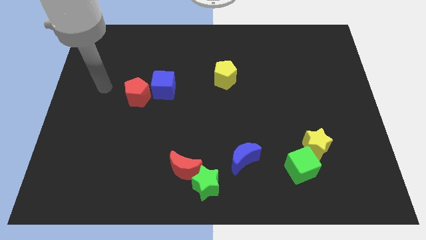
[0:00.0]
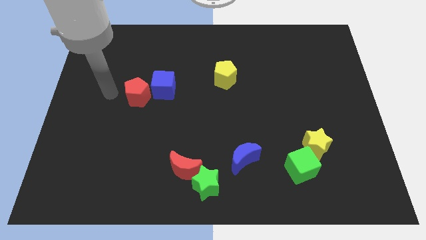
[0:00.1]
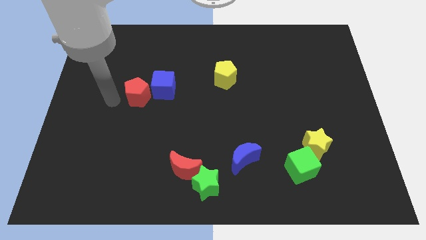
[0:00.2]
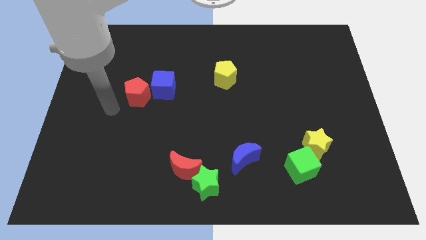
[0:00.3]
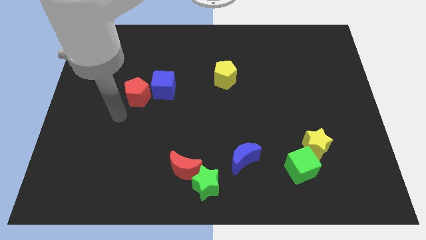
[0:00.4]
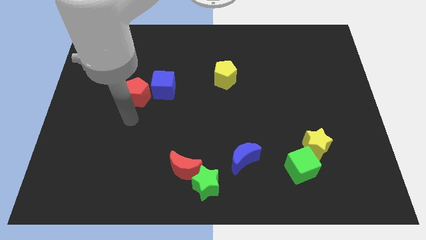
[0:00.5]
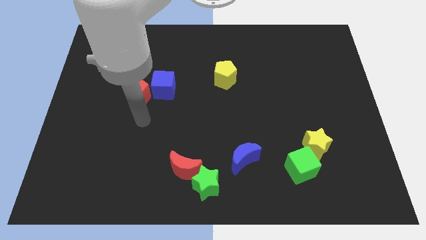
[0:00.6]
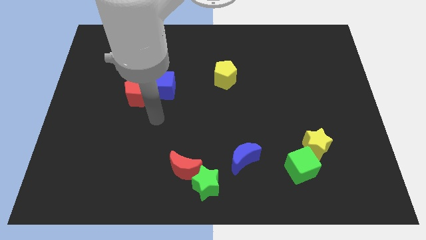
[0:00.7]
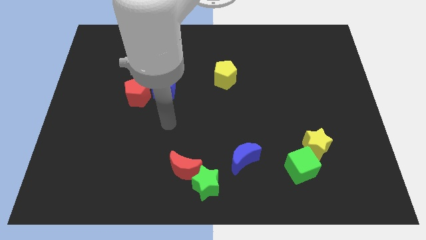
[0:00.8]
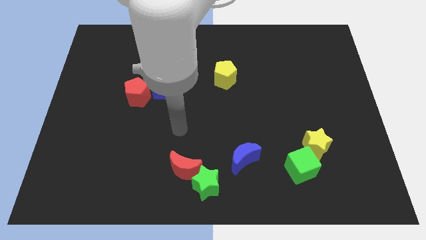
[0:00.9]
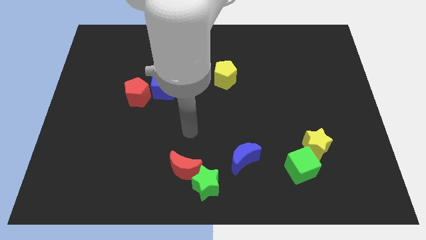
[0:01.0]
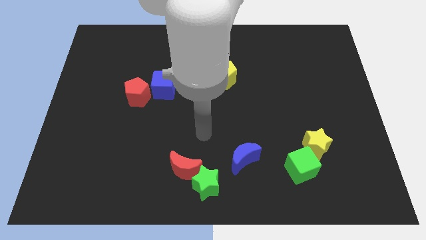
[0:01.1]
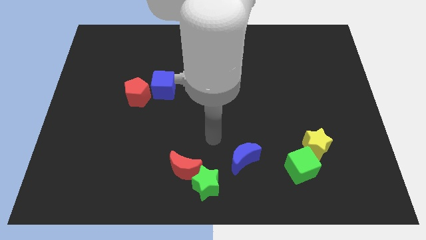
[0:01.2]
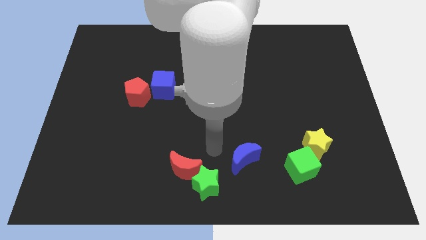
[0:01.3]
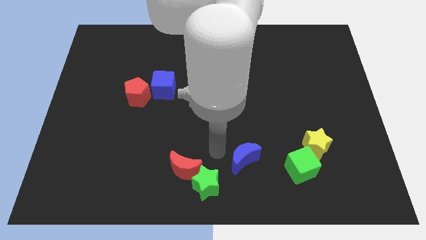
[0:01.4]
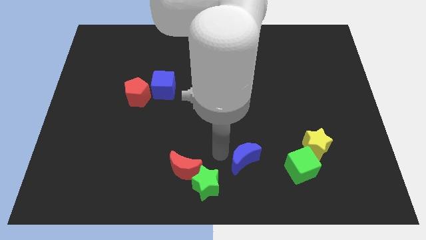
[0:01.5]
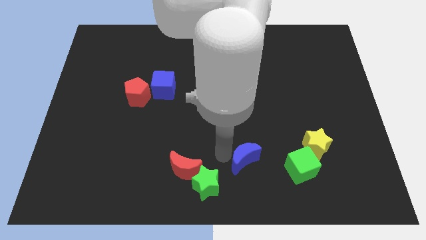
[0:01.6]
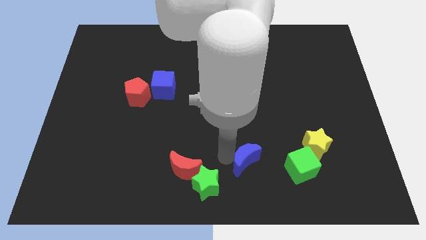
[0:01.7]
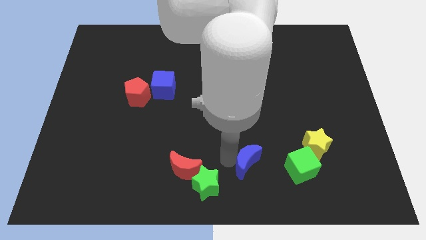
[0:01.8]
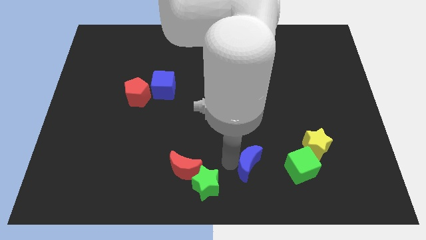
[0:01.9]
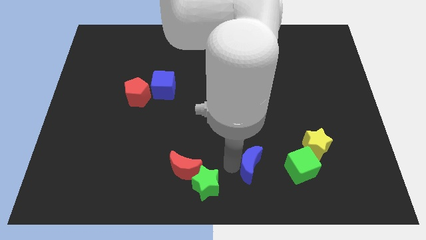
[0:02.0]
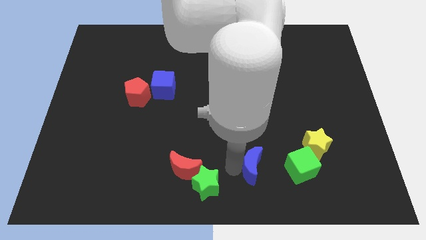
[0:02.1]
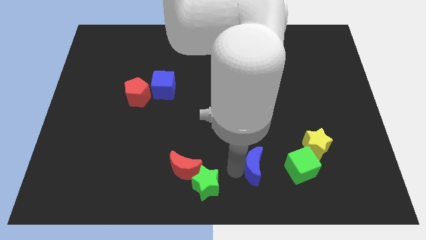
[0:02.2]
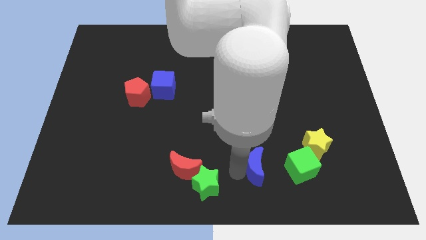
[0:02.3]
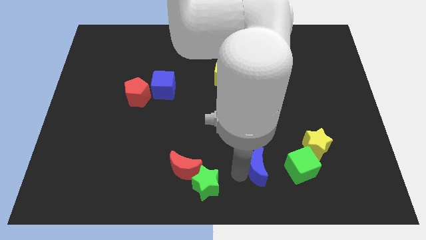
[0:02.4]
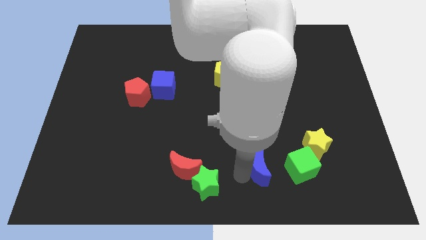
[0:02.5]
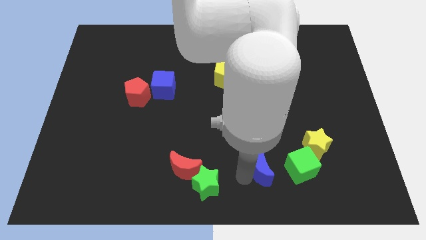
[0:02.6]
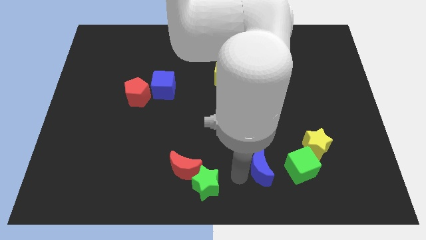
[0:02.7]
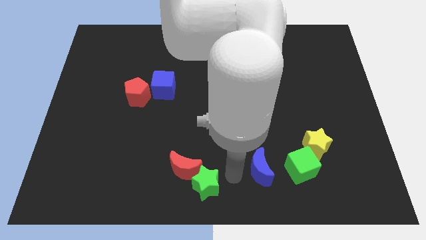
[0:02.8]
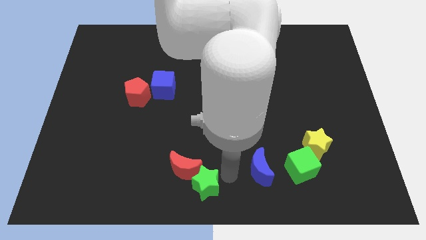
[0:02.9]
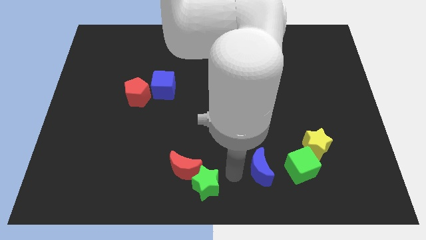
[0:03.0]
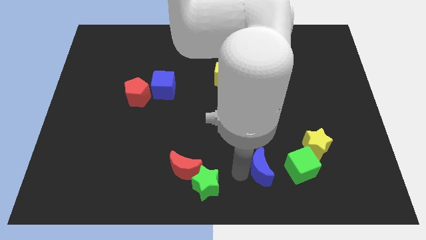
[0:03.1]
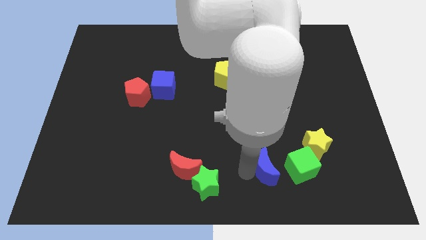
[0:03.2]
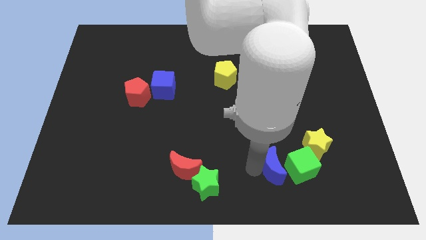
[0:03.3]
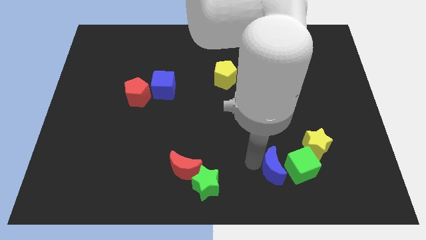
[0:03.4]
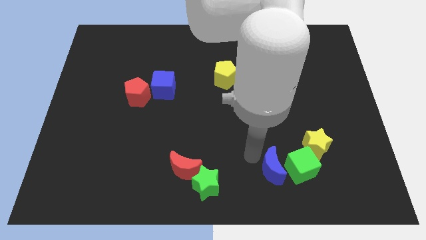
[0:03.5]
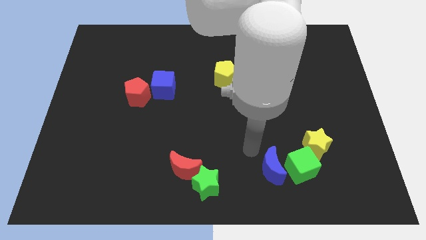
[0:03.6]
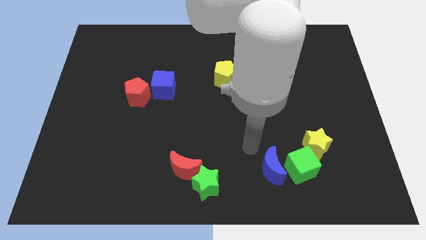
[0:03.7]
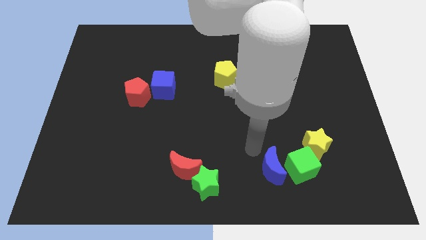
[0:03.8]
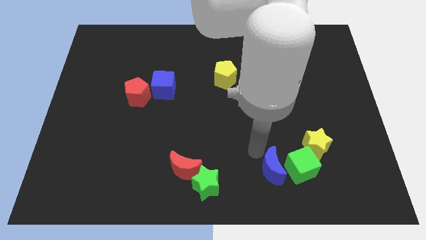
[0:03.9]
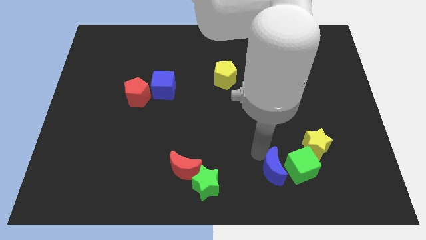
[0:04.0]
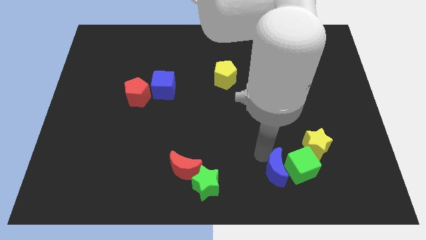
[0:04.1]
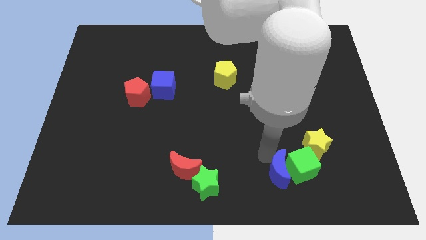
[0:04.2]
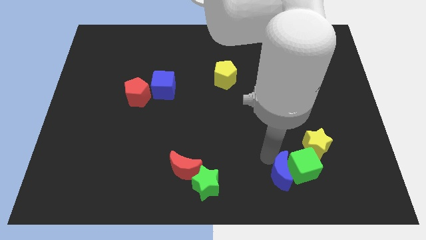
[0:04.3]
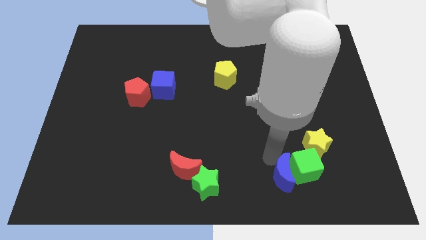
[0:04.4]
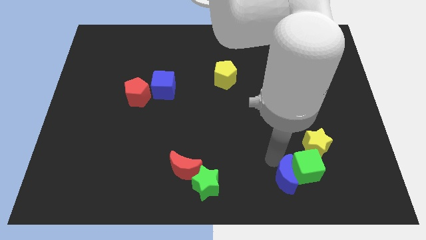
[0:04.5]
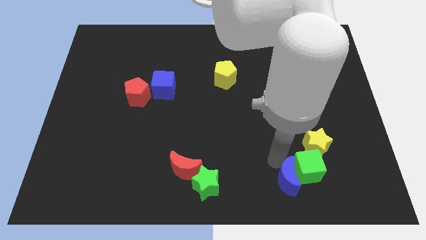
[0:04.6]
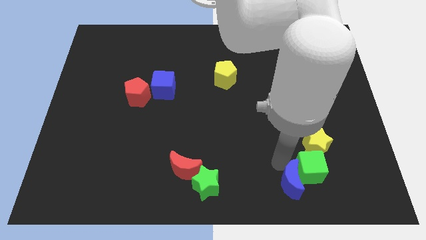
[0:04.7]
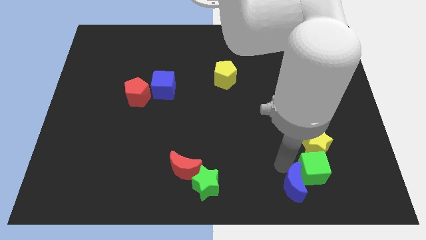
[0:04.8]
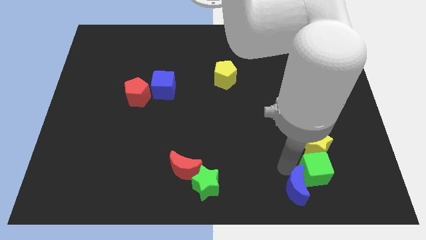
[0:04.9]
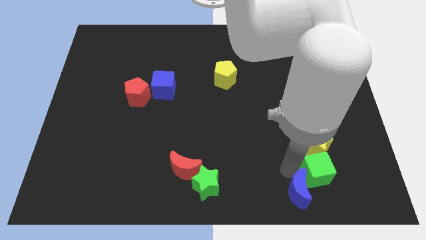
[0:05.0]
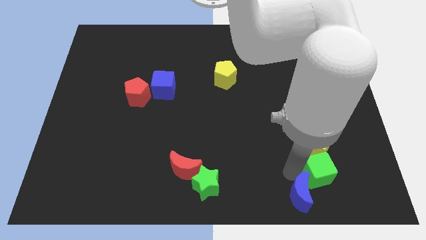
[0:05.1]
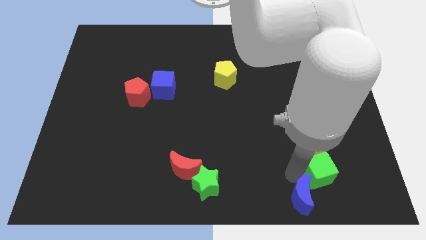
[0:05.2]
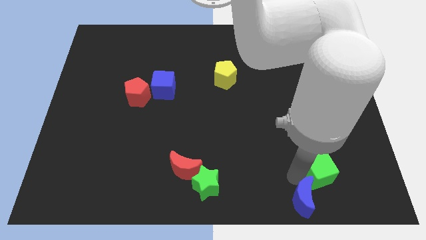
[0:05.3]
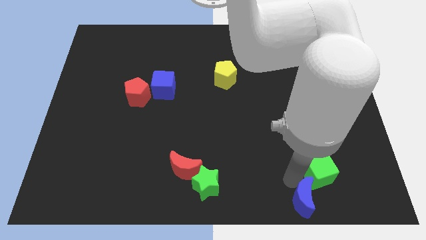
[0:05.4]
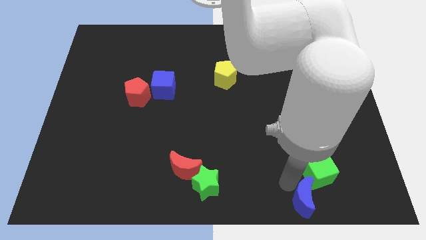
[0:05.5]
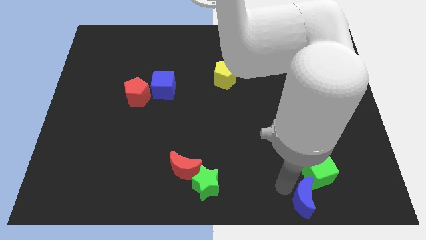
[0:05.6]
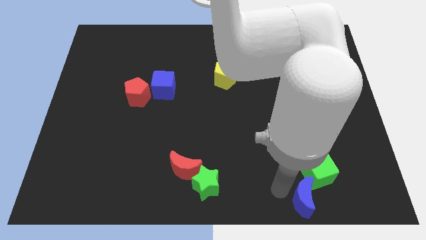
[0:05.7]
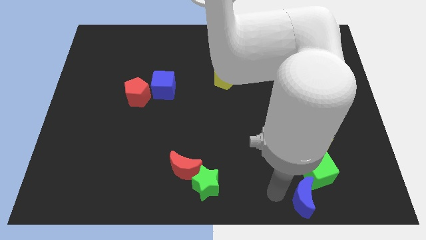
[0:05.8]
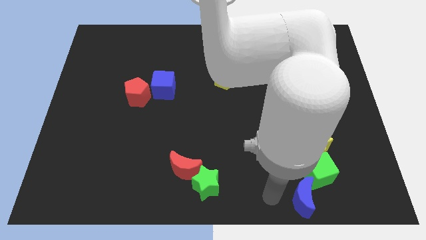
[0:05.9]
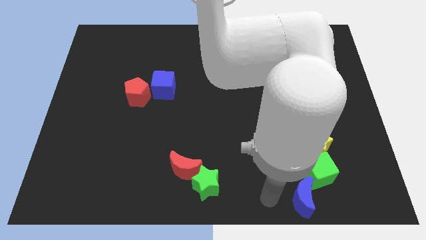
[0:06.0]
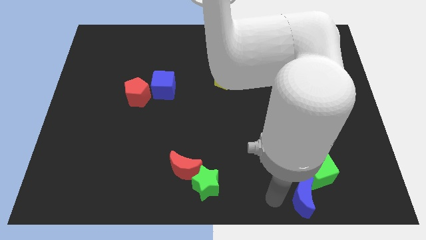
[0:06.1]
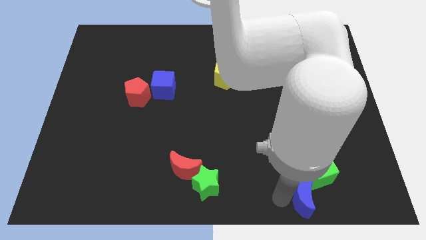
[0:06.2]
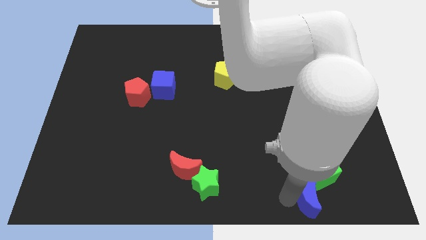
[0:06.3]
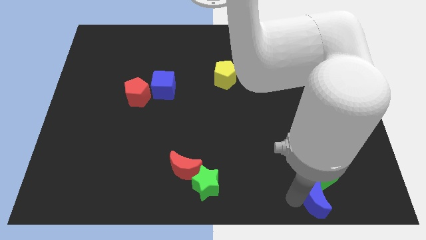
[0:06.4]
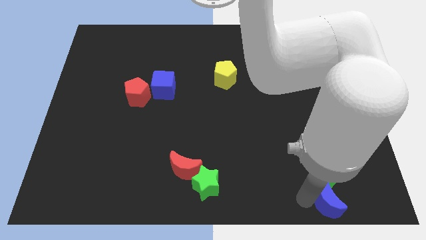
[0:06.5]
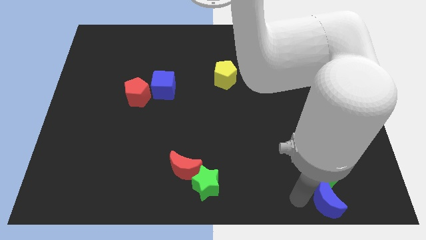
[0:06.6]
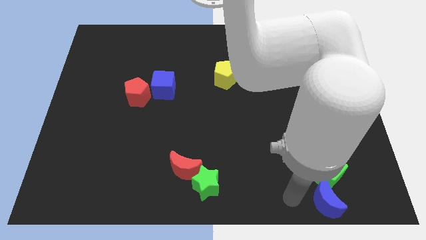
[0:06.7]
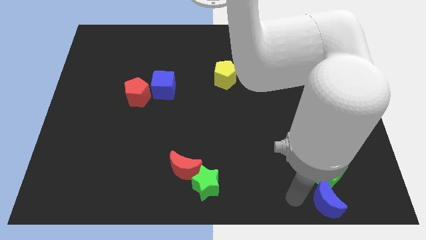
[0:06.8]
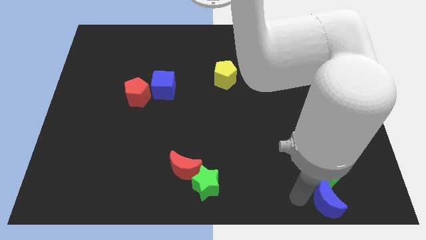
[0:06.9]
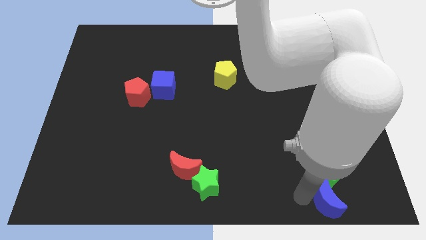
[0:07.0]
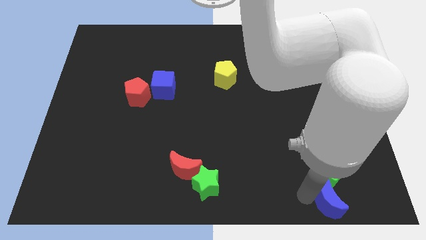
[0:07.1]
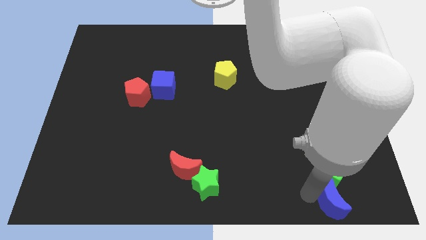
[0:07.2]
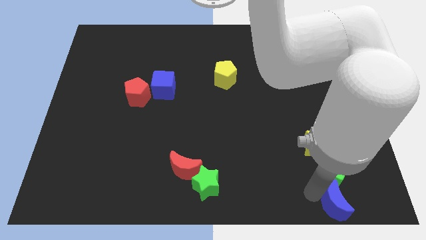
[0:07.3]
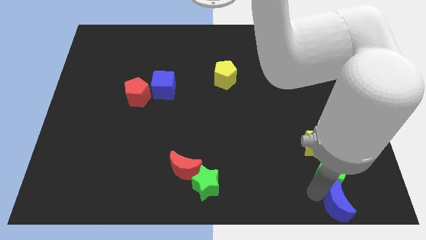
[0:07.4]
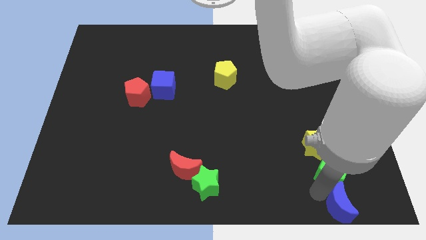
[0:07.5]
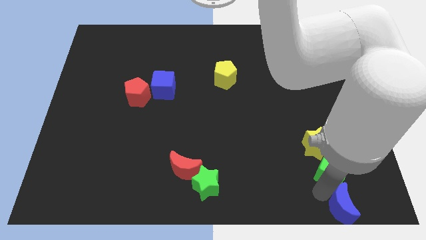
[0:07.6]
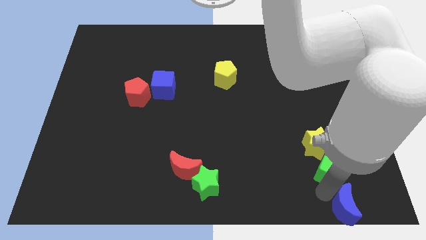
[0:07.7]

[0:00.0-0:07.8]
put the blue moon to the lower right corner
